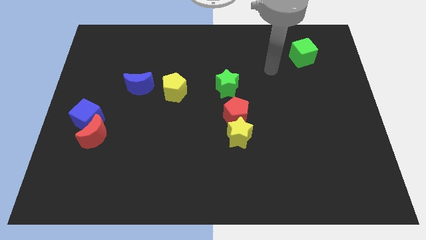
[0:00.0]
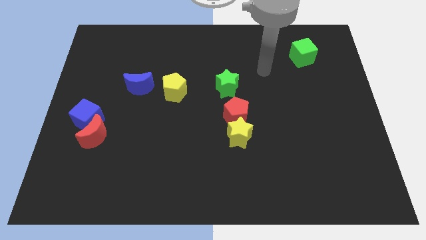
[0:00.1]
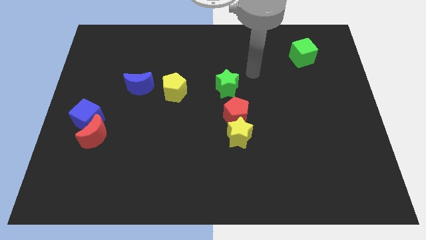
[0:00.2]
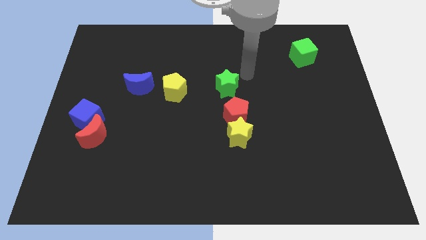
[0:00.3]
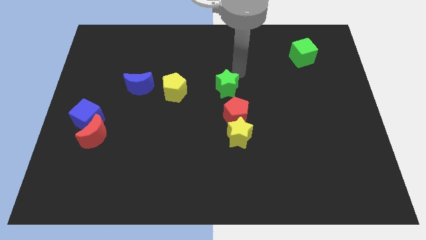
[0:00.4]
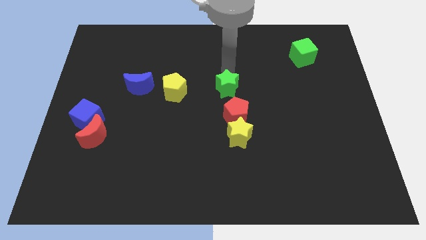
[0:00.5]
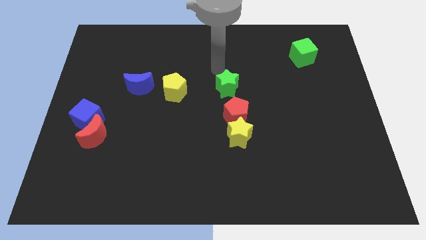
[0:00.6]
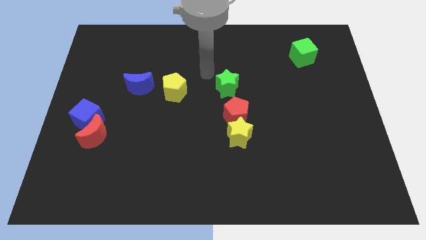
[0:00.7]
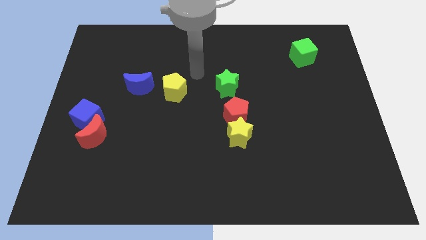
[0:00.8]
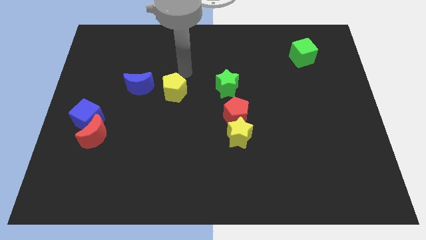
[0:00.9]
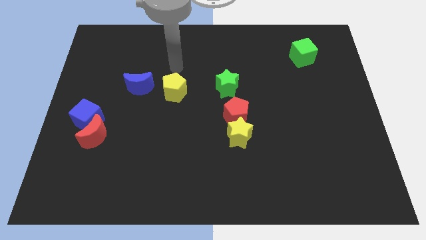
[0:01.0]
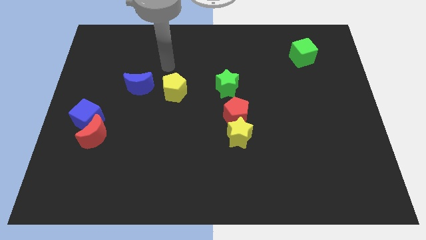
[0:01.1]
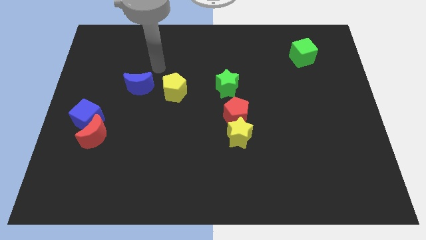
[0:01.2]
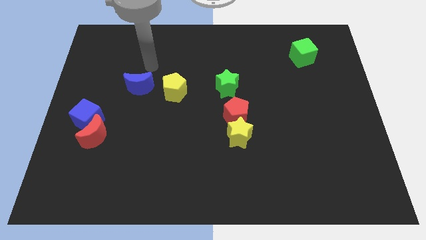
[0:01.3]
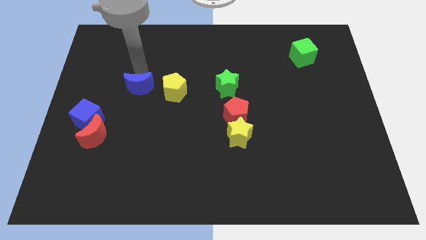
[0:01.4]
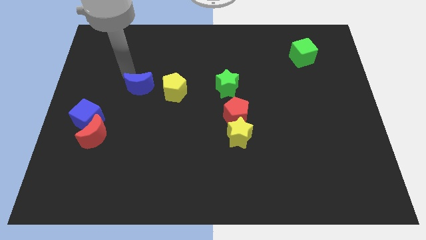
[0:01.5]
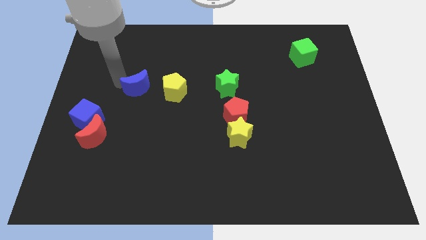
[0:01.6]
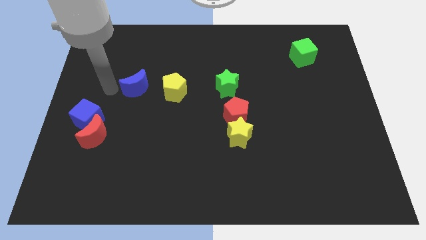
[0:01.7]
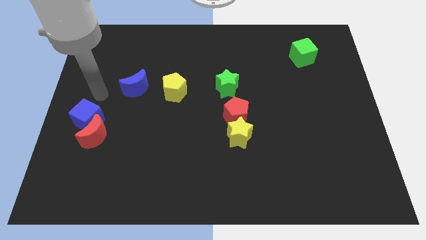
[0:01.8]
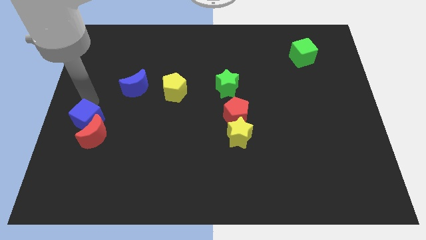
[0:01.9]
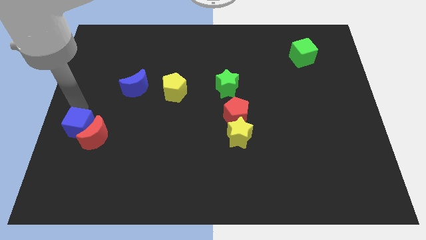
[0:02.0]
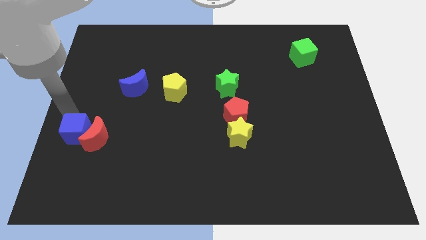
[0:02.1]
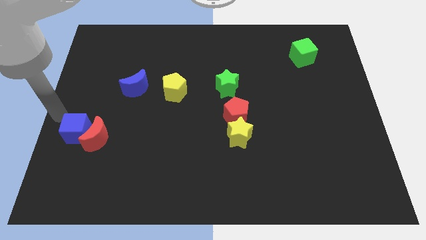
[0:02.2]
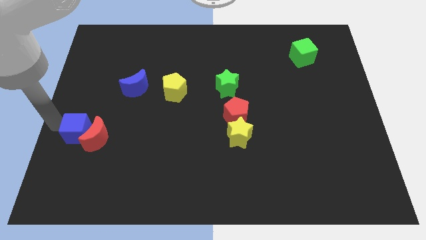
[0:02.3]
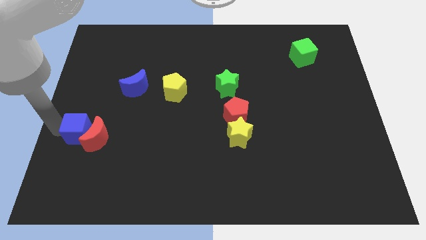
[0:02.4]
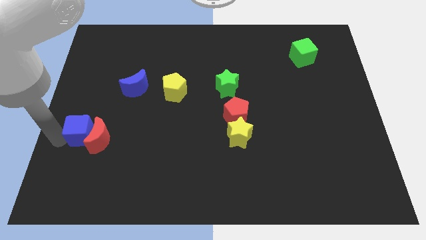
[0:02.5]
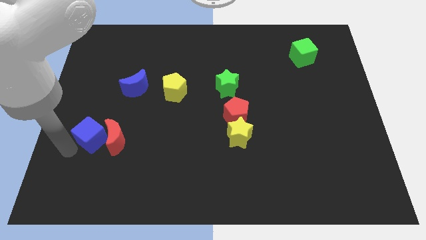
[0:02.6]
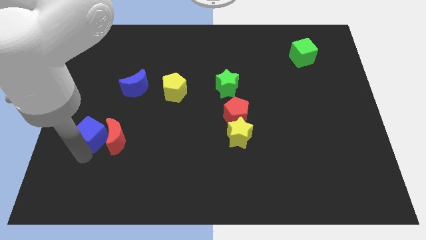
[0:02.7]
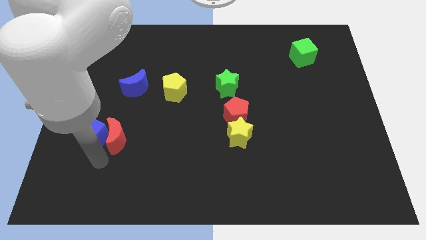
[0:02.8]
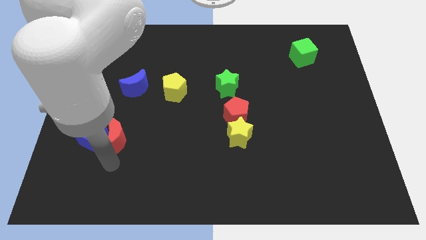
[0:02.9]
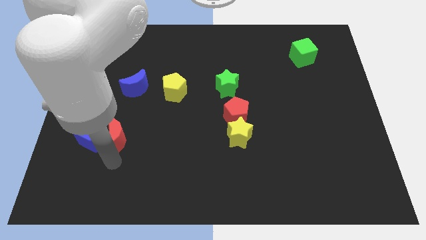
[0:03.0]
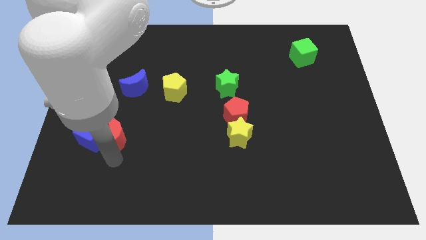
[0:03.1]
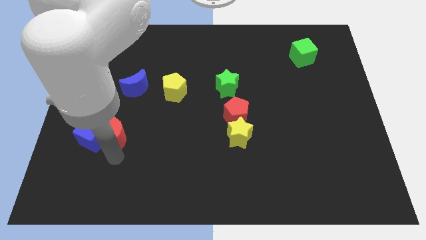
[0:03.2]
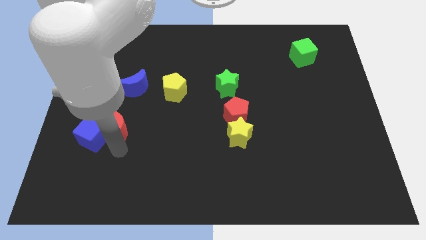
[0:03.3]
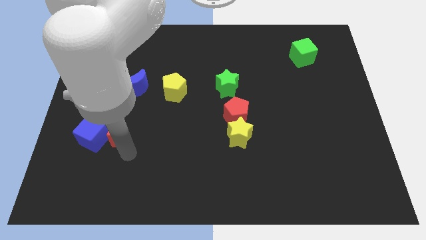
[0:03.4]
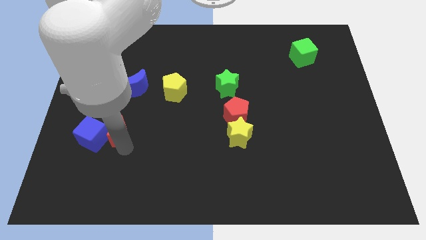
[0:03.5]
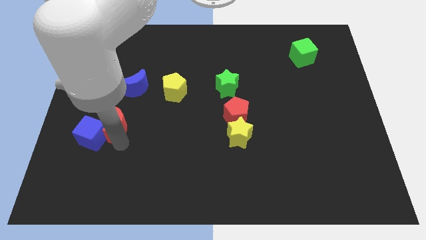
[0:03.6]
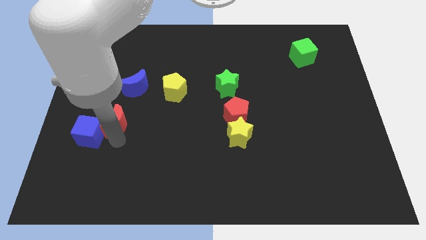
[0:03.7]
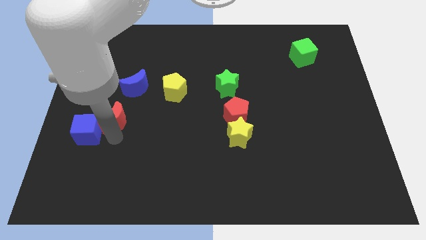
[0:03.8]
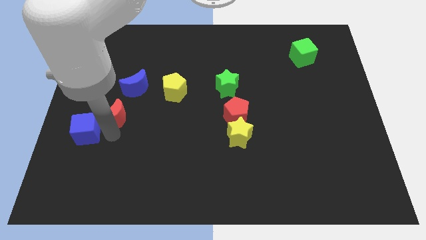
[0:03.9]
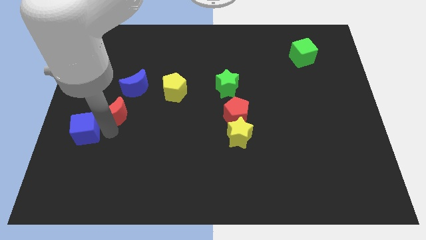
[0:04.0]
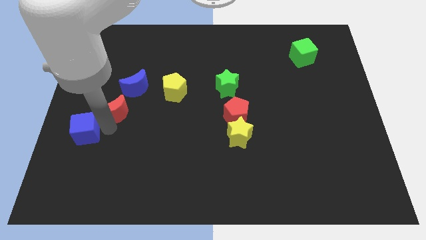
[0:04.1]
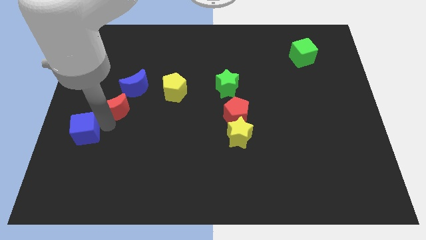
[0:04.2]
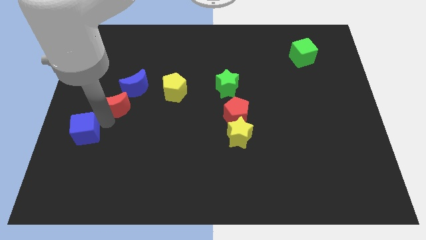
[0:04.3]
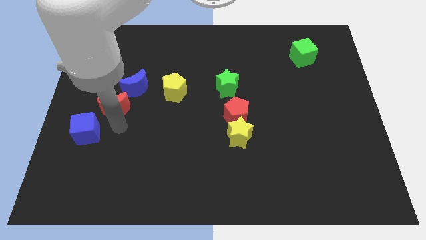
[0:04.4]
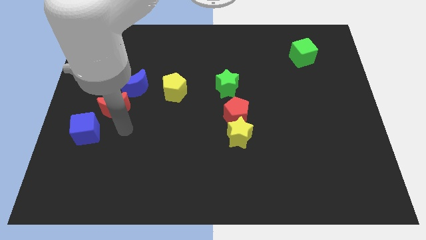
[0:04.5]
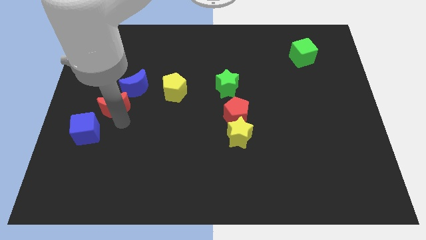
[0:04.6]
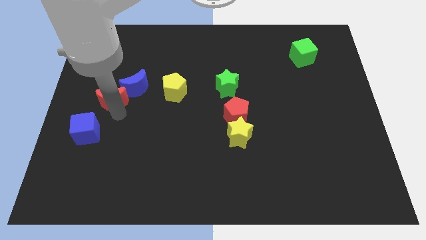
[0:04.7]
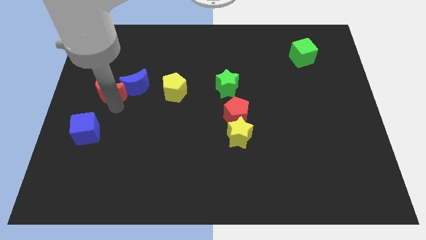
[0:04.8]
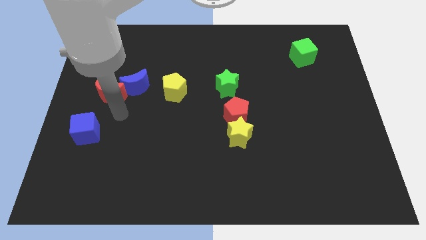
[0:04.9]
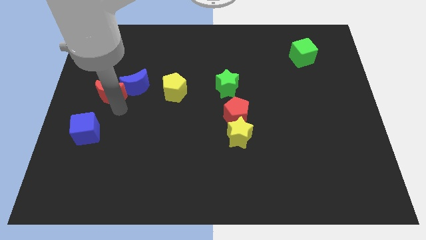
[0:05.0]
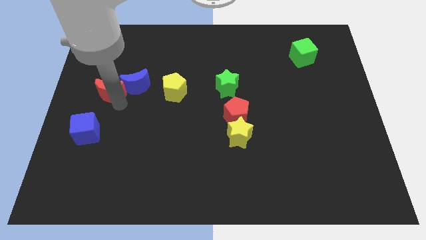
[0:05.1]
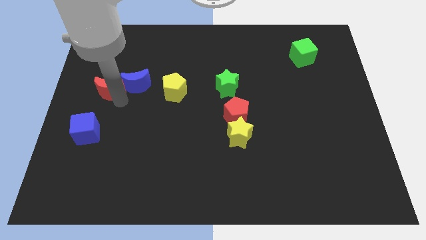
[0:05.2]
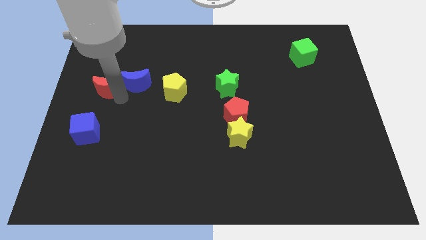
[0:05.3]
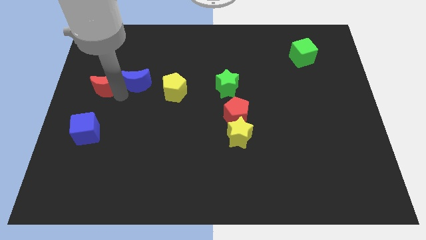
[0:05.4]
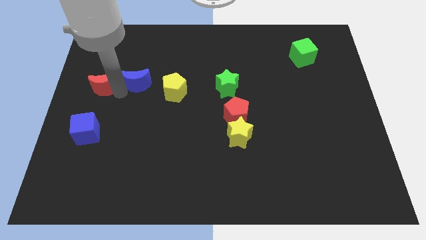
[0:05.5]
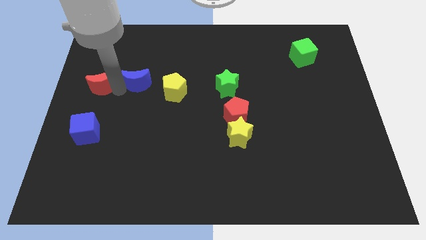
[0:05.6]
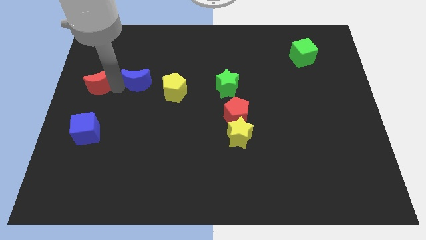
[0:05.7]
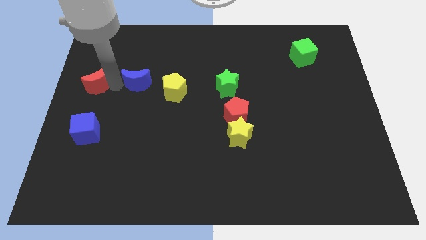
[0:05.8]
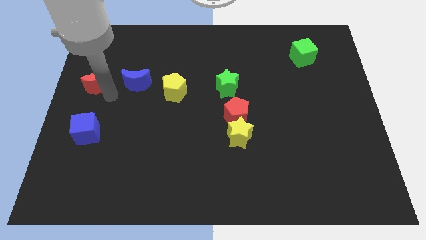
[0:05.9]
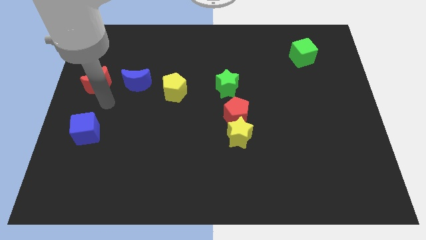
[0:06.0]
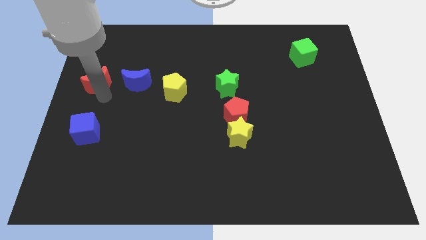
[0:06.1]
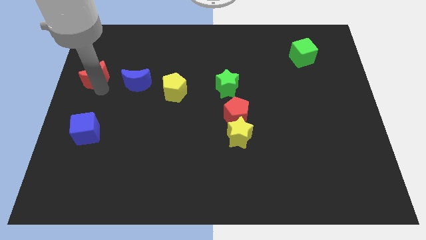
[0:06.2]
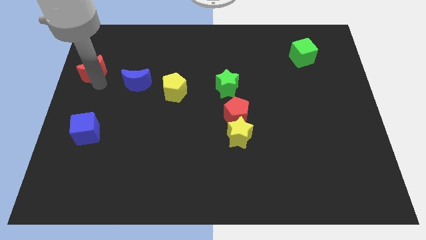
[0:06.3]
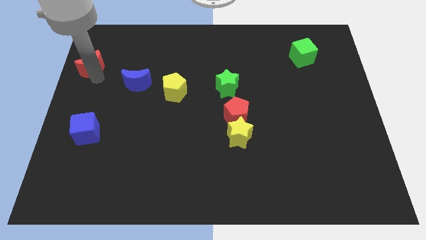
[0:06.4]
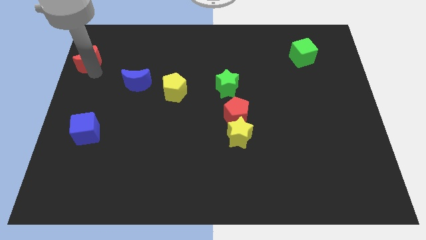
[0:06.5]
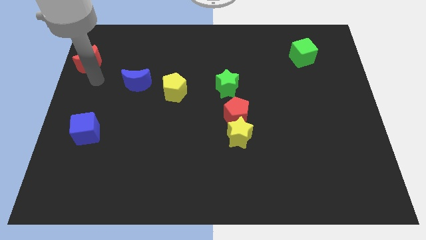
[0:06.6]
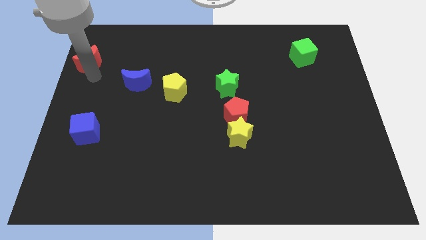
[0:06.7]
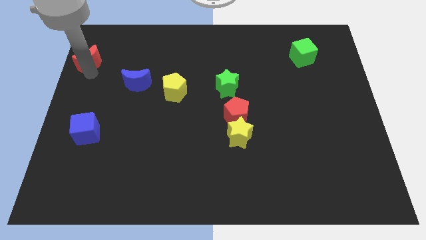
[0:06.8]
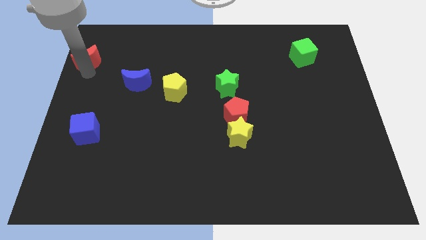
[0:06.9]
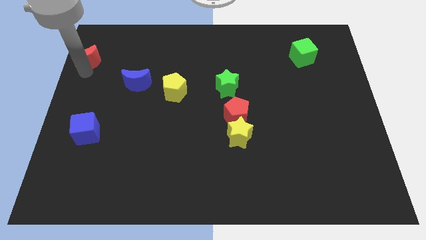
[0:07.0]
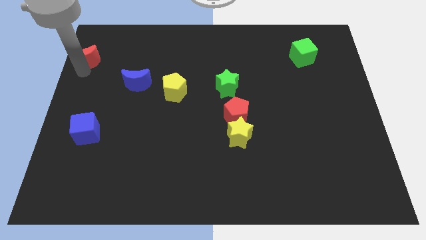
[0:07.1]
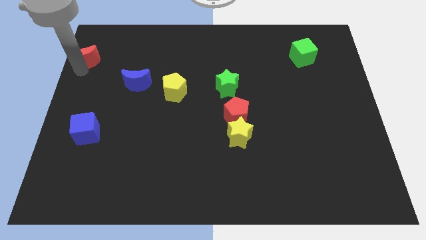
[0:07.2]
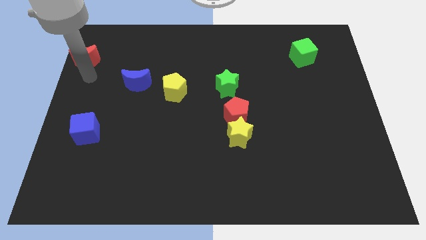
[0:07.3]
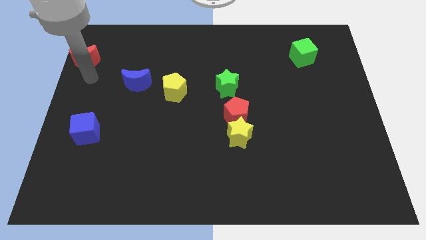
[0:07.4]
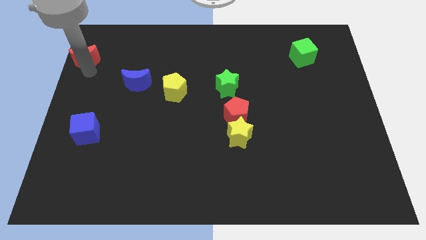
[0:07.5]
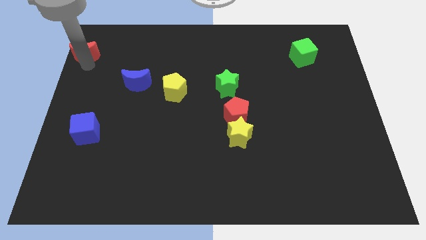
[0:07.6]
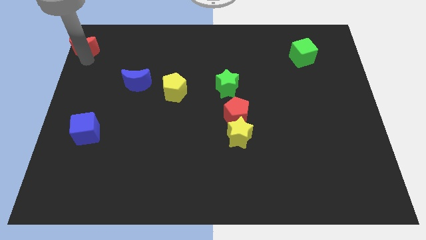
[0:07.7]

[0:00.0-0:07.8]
put the red moon to the top left of the board
